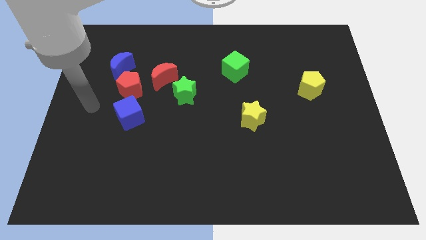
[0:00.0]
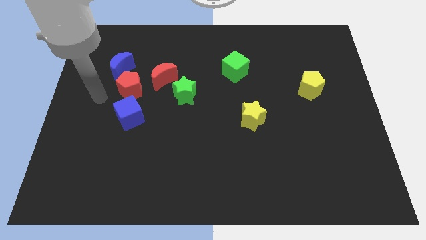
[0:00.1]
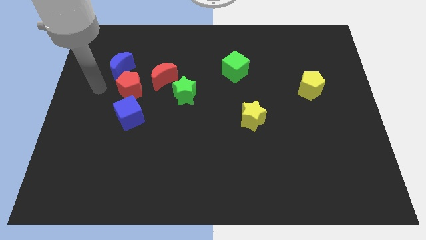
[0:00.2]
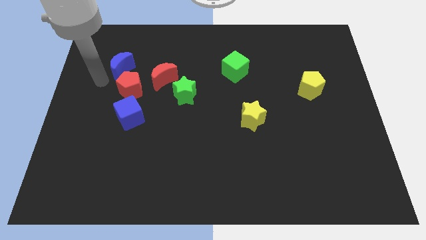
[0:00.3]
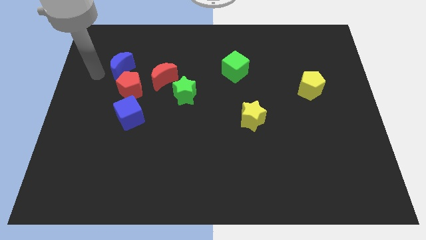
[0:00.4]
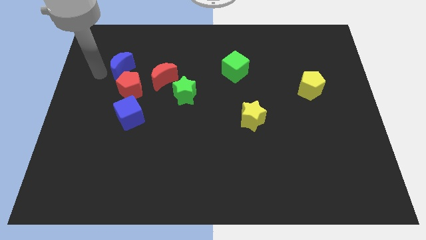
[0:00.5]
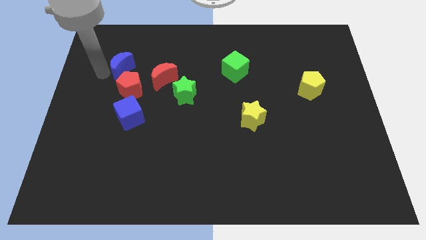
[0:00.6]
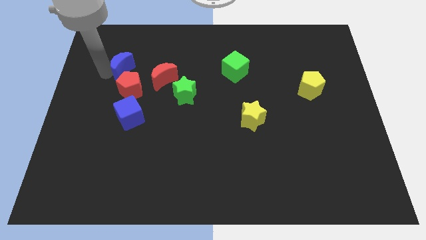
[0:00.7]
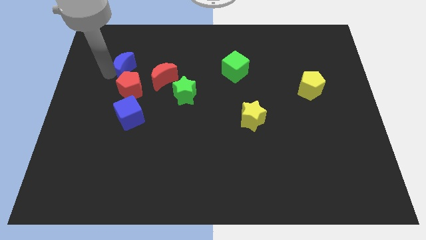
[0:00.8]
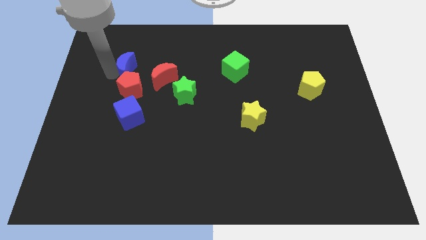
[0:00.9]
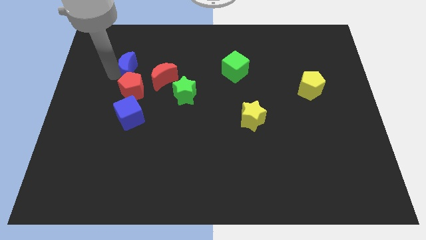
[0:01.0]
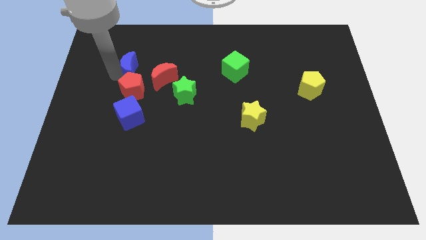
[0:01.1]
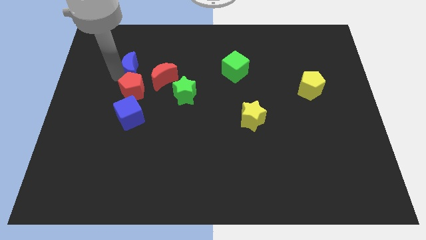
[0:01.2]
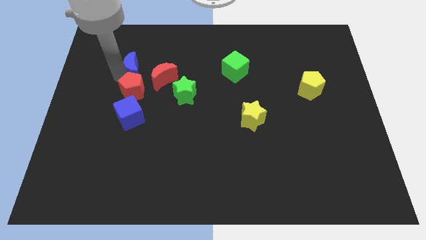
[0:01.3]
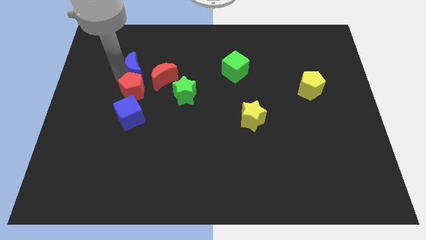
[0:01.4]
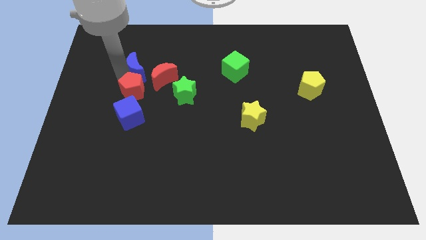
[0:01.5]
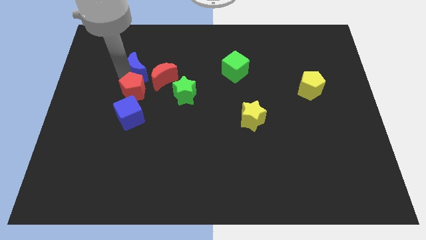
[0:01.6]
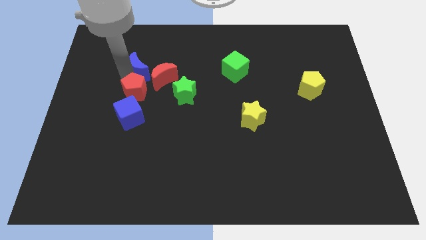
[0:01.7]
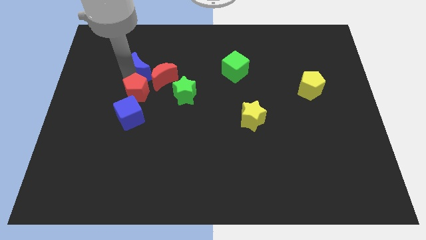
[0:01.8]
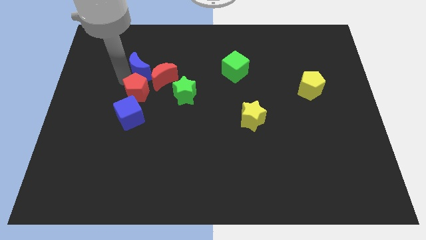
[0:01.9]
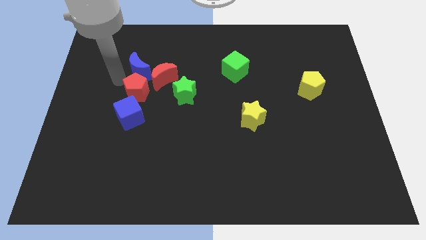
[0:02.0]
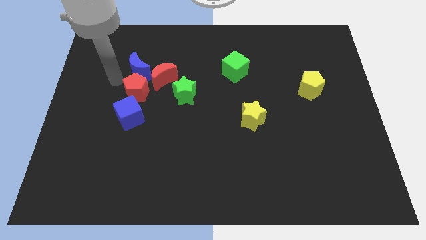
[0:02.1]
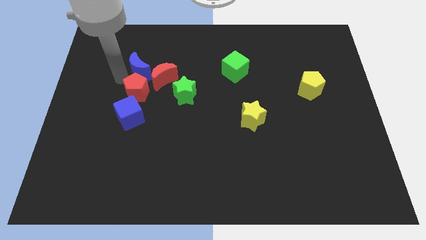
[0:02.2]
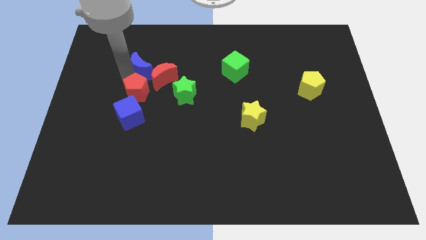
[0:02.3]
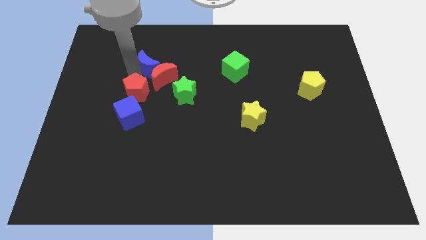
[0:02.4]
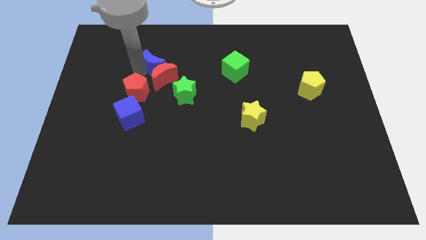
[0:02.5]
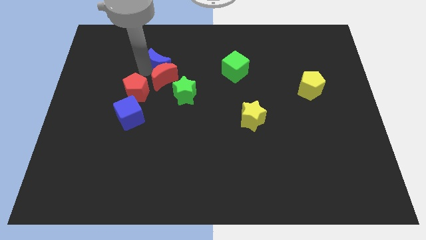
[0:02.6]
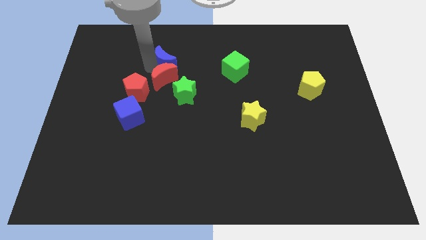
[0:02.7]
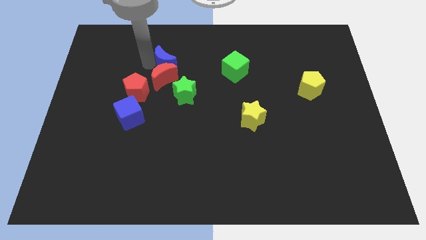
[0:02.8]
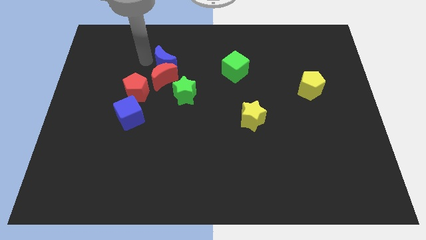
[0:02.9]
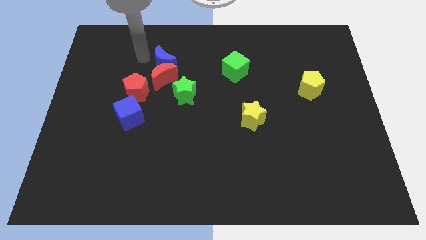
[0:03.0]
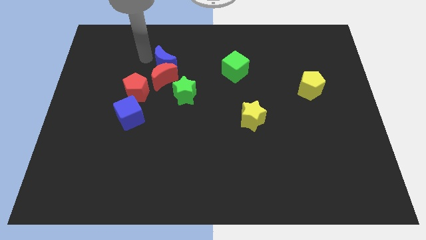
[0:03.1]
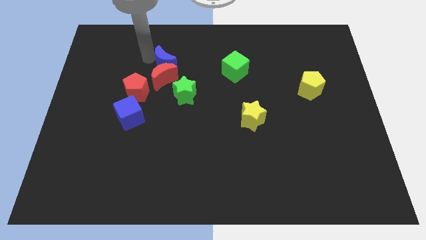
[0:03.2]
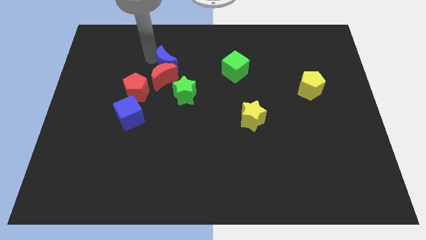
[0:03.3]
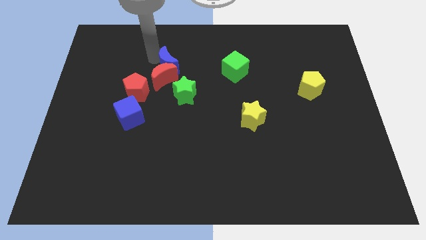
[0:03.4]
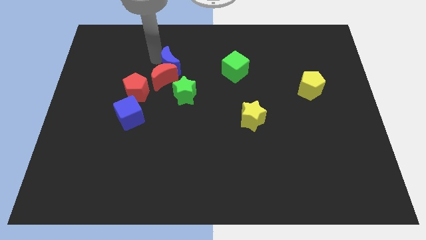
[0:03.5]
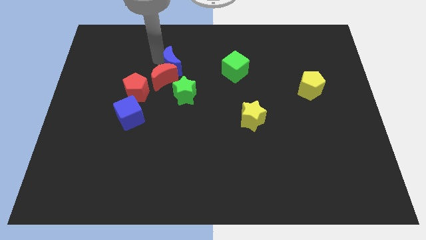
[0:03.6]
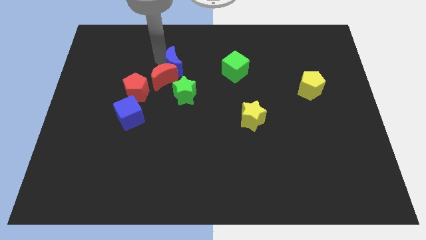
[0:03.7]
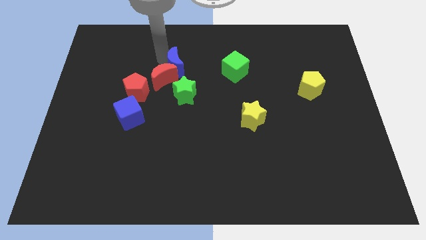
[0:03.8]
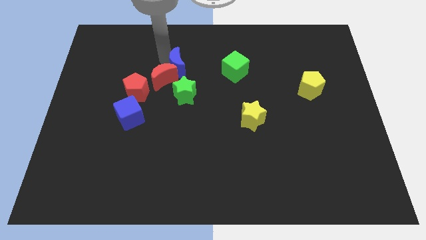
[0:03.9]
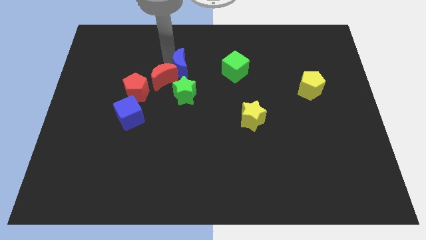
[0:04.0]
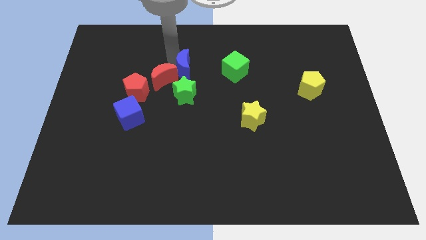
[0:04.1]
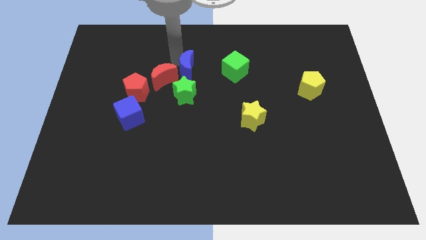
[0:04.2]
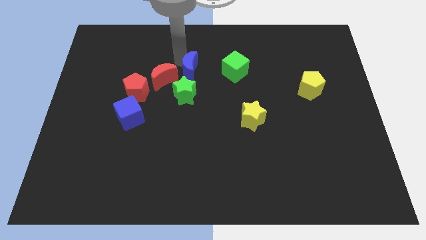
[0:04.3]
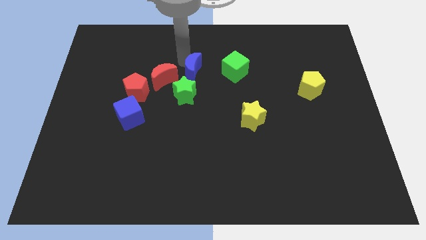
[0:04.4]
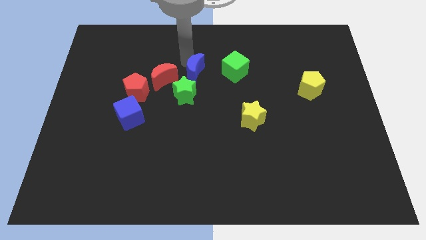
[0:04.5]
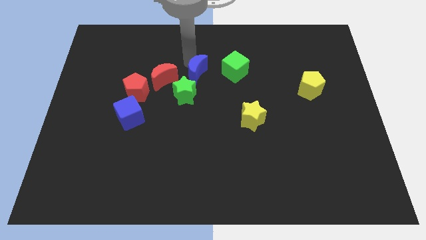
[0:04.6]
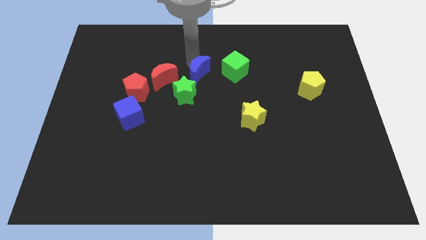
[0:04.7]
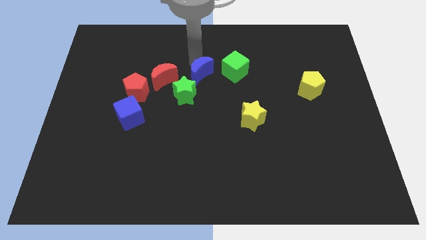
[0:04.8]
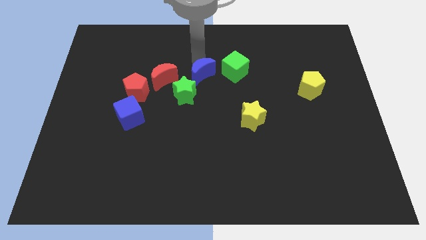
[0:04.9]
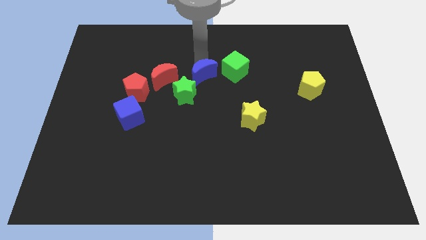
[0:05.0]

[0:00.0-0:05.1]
slide the blue moon to the bottom left side of the green cube

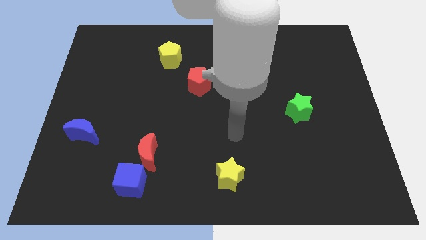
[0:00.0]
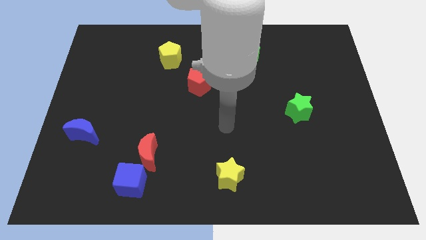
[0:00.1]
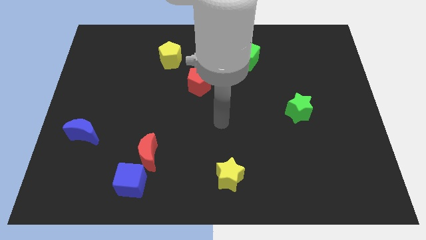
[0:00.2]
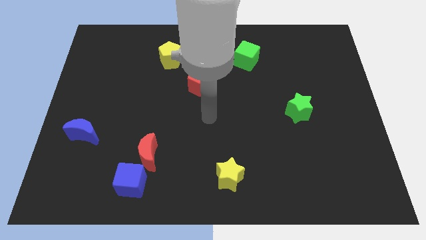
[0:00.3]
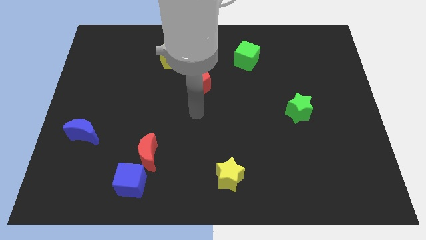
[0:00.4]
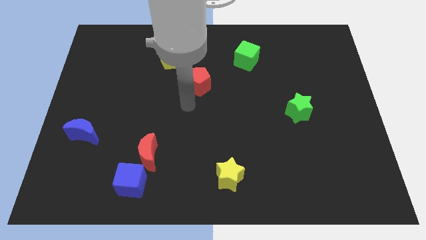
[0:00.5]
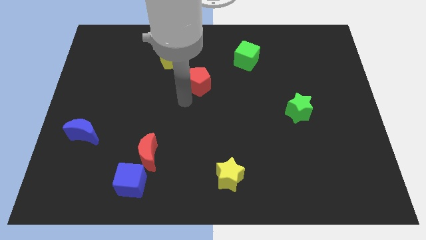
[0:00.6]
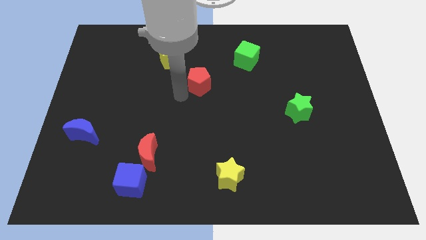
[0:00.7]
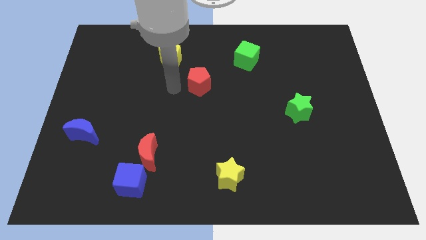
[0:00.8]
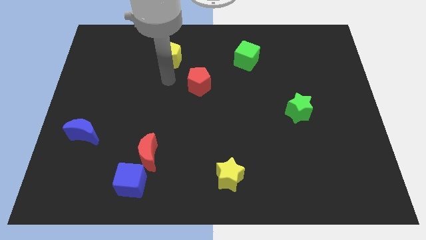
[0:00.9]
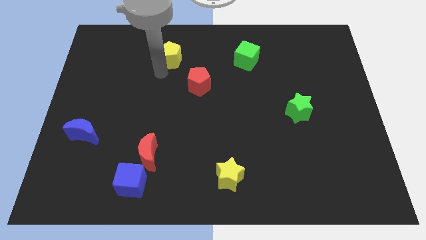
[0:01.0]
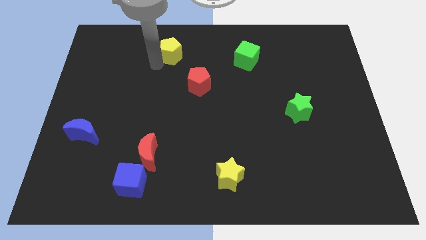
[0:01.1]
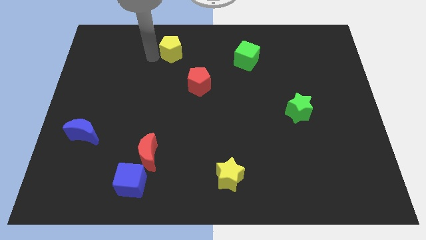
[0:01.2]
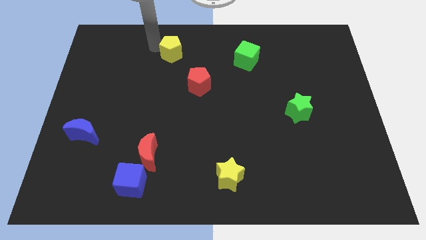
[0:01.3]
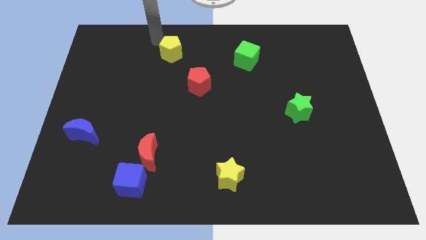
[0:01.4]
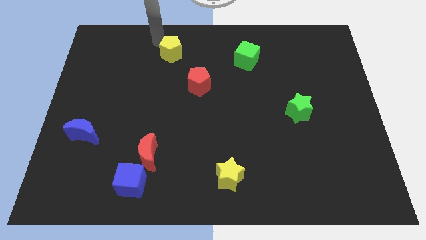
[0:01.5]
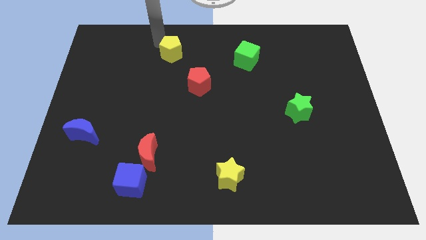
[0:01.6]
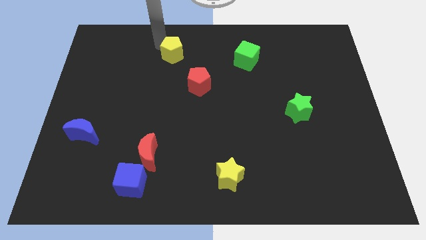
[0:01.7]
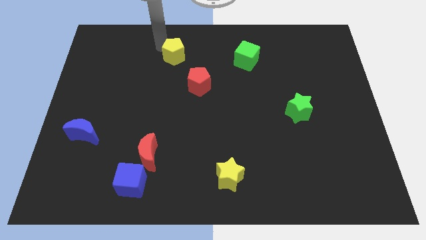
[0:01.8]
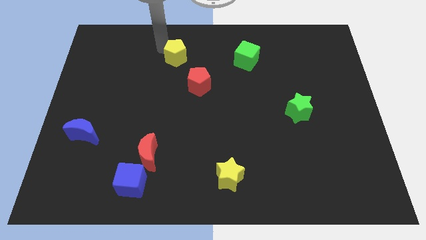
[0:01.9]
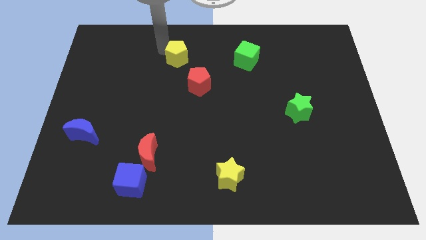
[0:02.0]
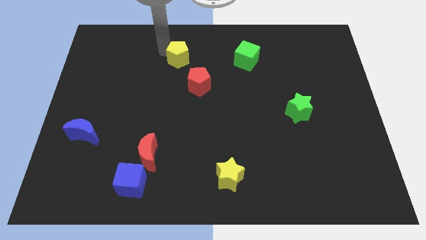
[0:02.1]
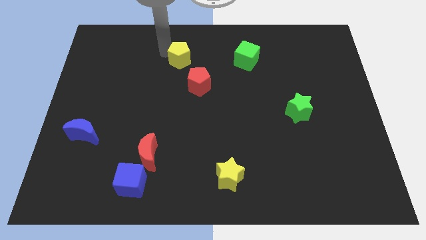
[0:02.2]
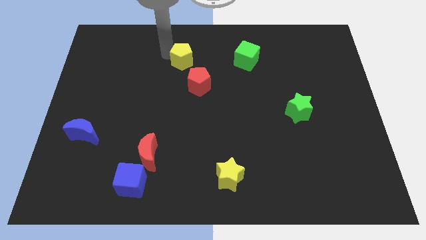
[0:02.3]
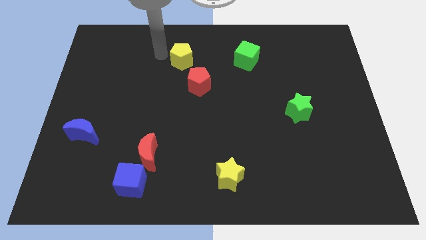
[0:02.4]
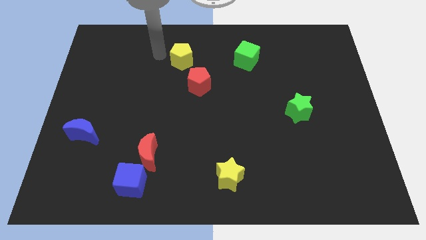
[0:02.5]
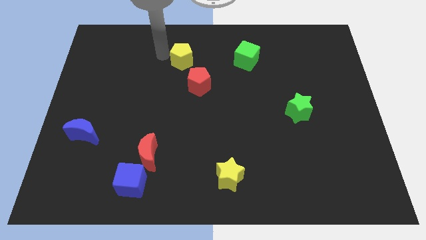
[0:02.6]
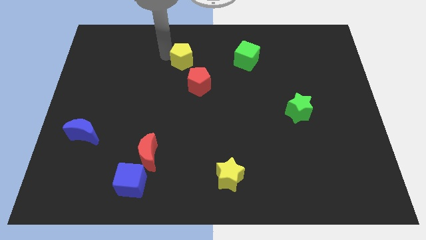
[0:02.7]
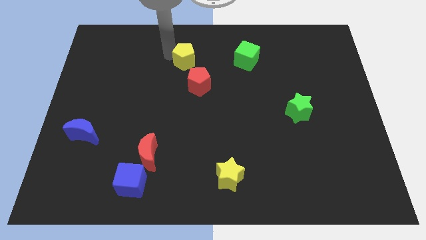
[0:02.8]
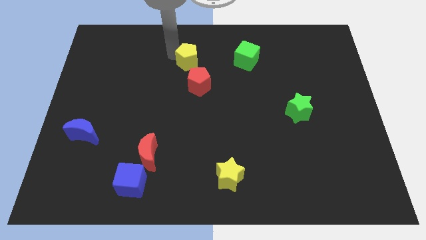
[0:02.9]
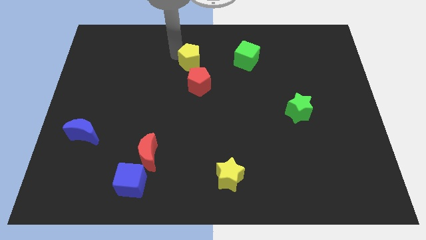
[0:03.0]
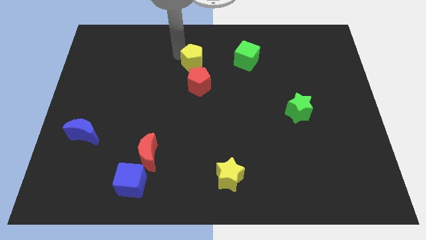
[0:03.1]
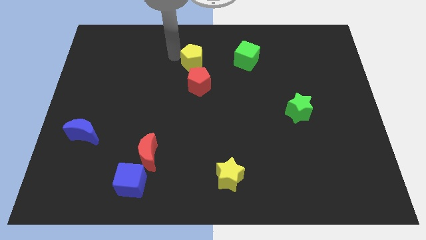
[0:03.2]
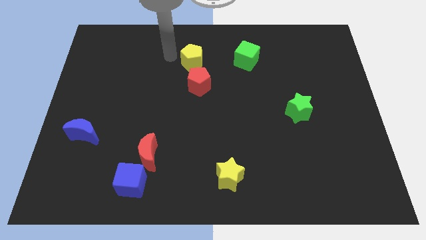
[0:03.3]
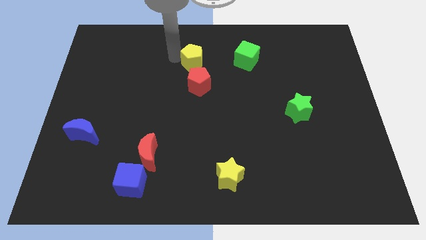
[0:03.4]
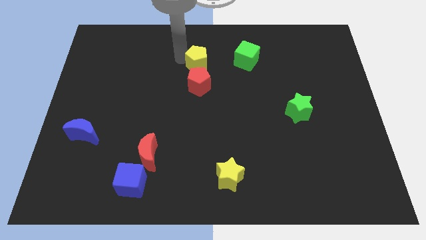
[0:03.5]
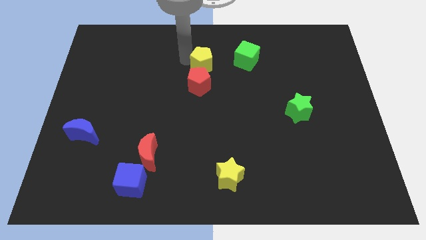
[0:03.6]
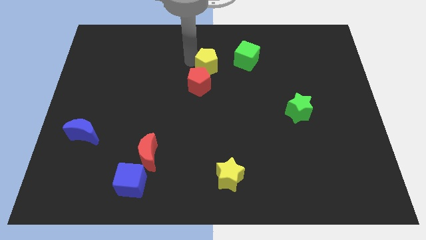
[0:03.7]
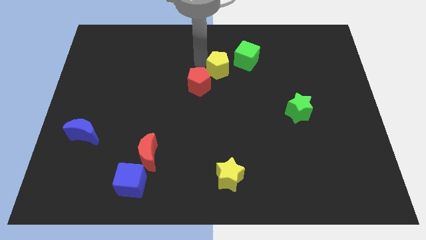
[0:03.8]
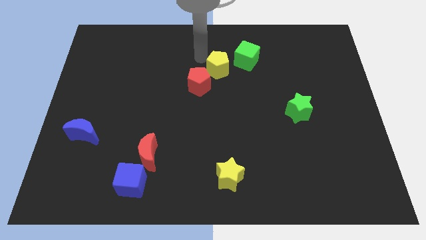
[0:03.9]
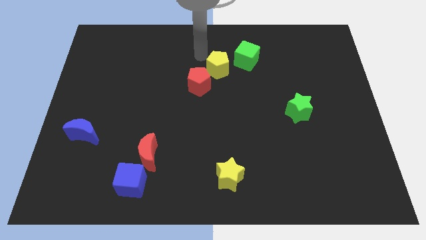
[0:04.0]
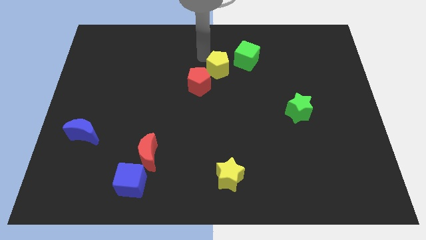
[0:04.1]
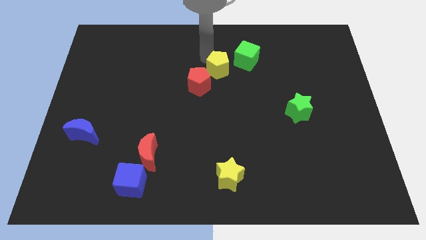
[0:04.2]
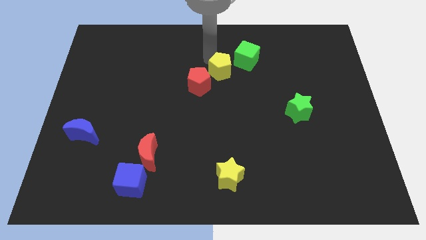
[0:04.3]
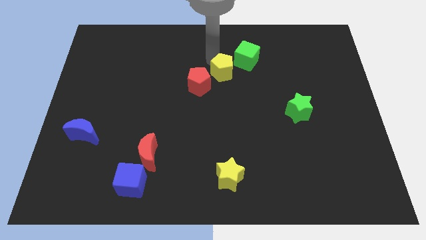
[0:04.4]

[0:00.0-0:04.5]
push the yellow pentagon right of the red pentagon
